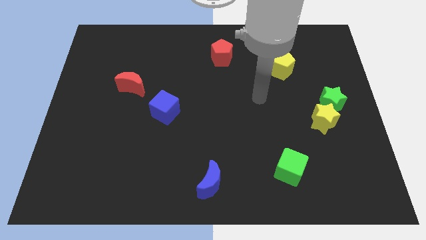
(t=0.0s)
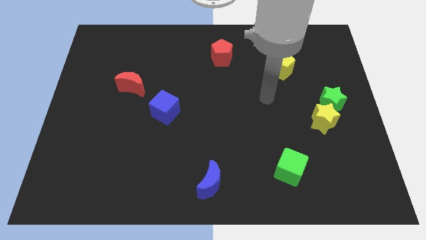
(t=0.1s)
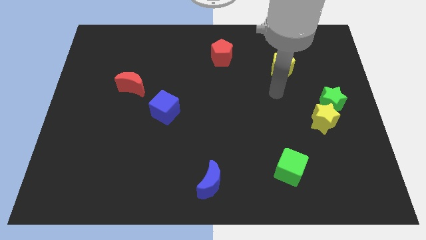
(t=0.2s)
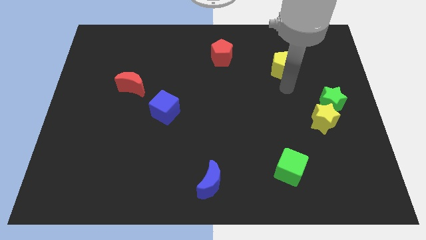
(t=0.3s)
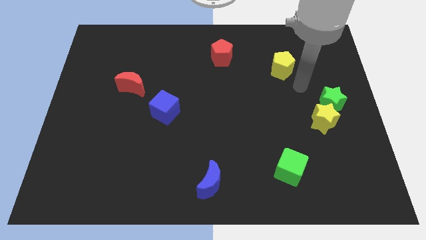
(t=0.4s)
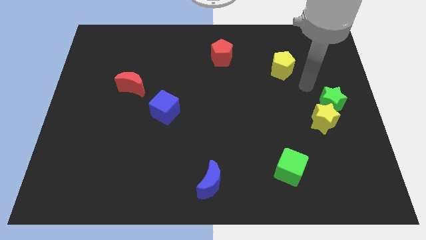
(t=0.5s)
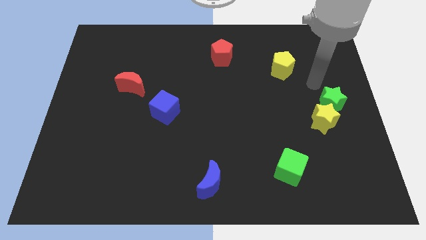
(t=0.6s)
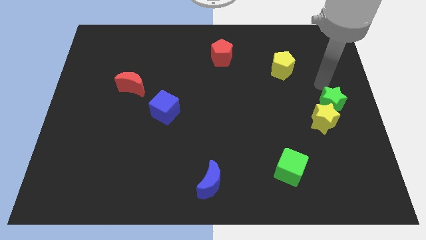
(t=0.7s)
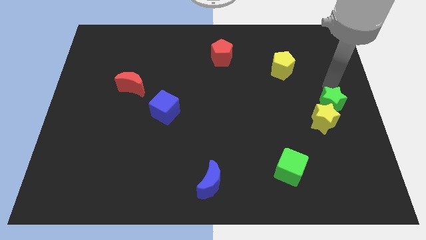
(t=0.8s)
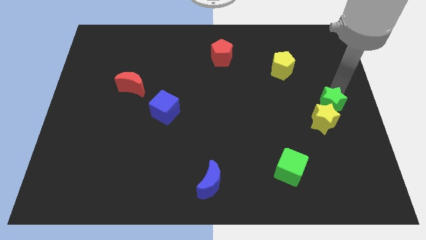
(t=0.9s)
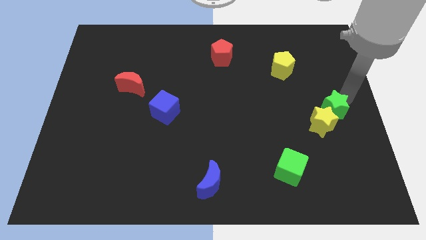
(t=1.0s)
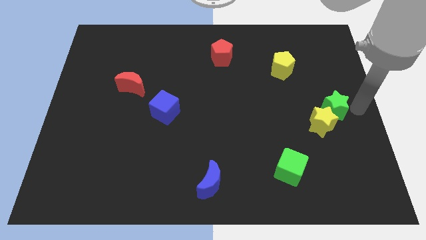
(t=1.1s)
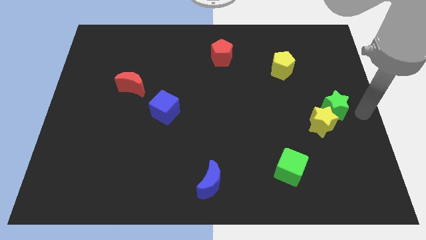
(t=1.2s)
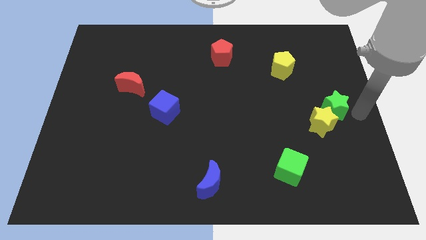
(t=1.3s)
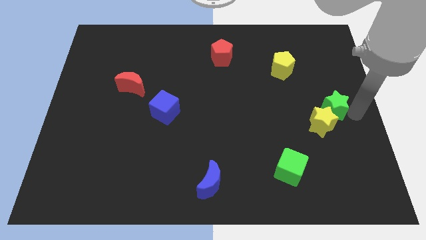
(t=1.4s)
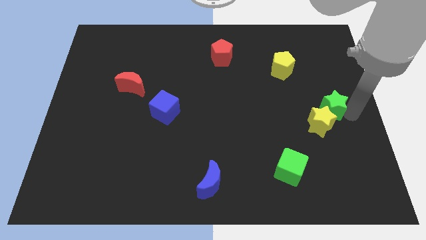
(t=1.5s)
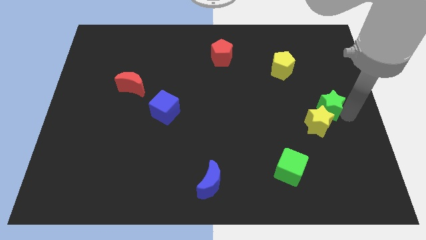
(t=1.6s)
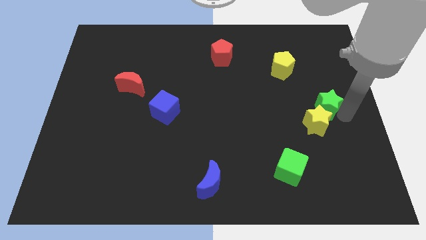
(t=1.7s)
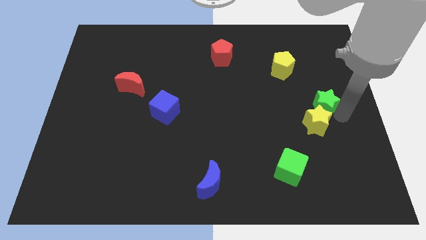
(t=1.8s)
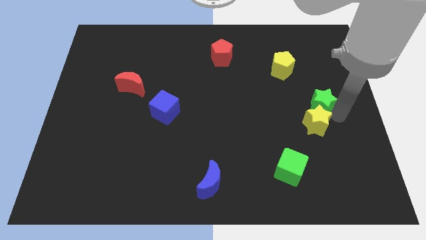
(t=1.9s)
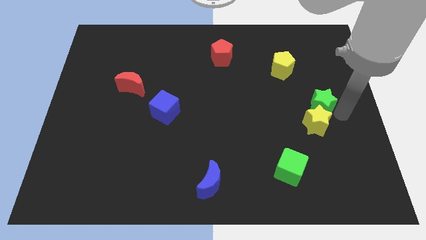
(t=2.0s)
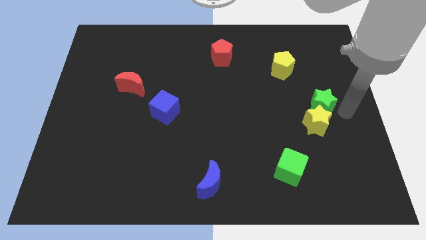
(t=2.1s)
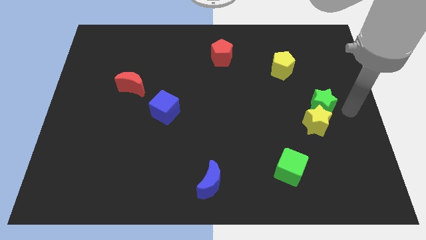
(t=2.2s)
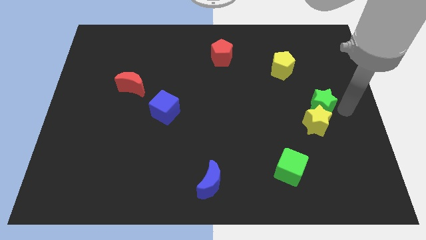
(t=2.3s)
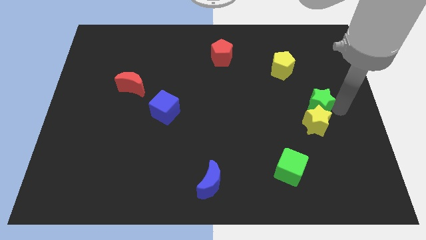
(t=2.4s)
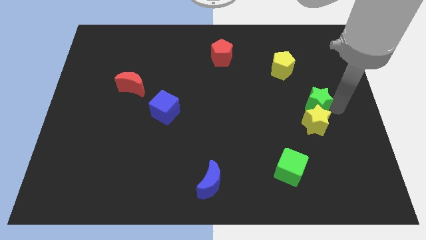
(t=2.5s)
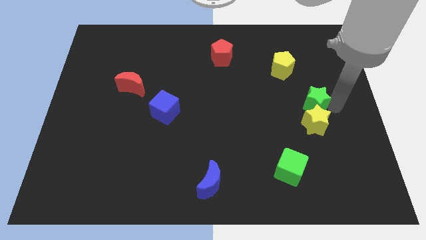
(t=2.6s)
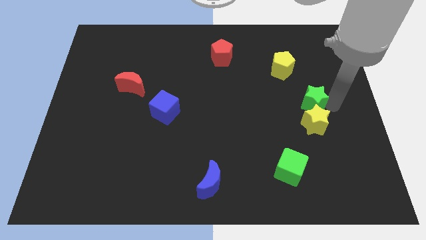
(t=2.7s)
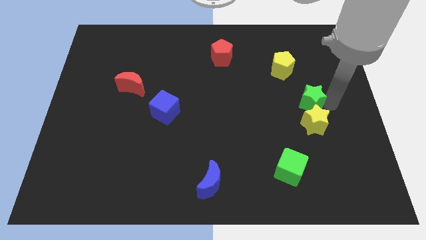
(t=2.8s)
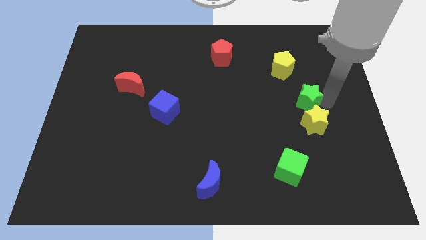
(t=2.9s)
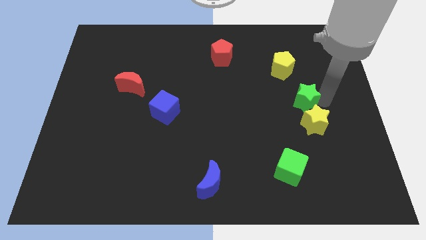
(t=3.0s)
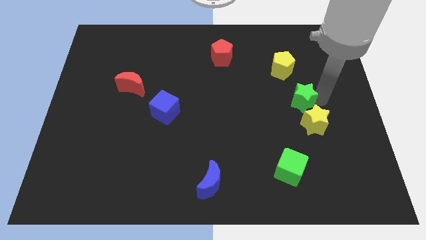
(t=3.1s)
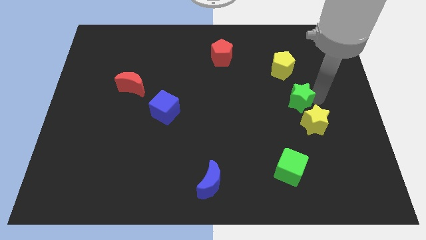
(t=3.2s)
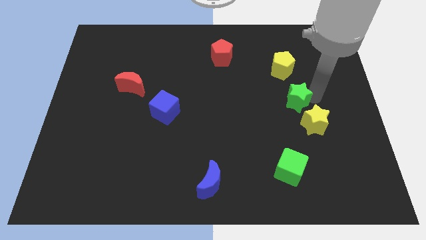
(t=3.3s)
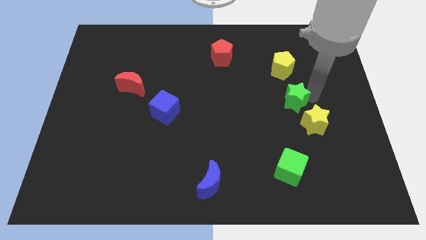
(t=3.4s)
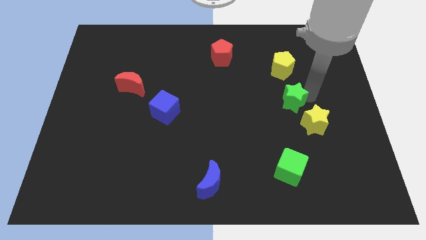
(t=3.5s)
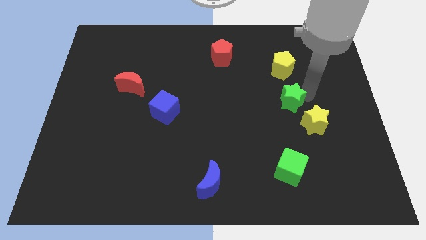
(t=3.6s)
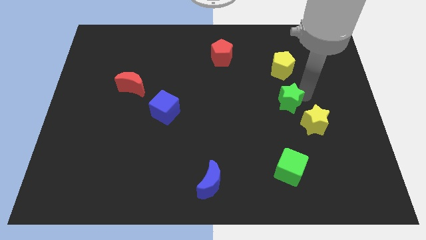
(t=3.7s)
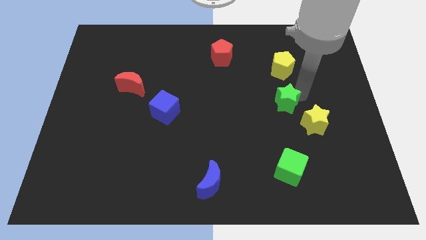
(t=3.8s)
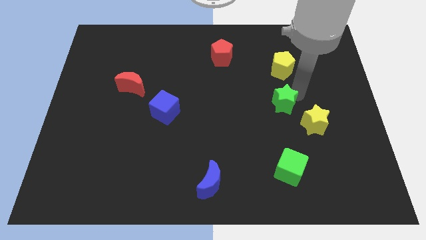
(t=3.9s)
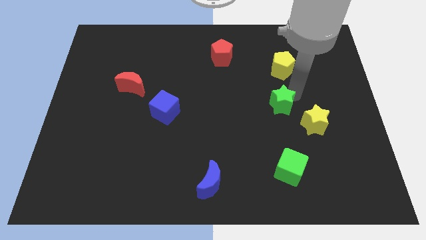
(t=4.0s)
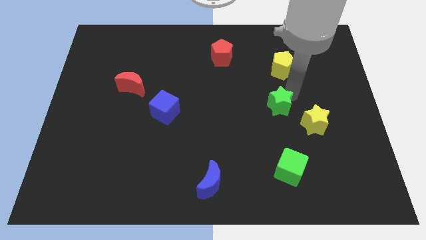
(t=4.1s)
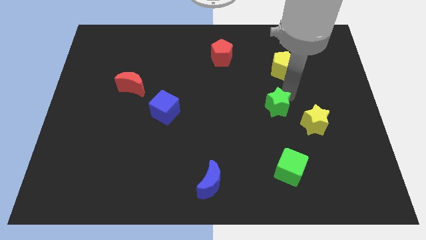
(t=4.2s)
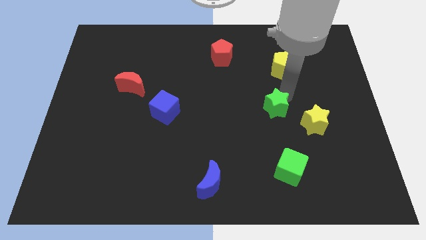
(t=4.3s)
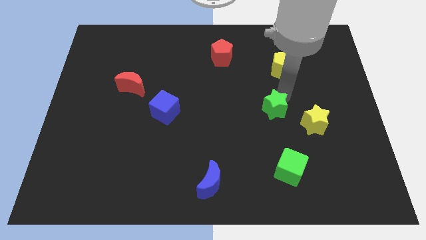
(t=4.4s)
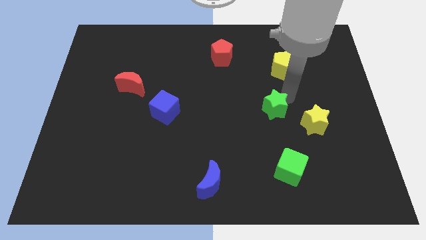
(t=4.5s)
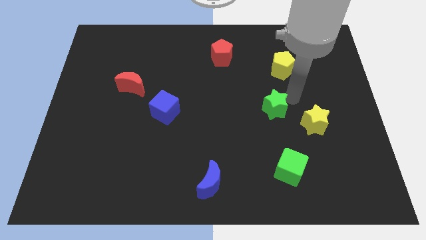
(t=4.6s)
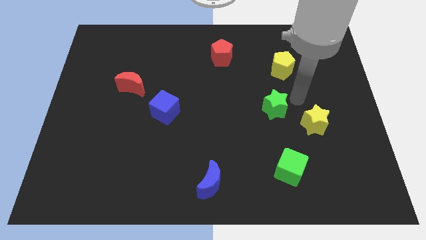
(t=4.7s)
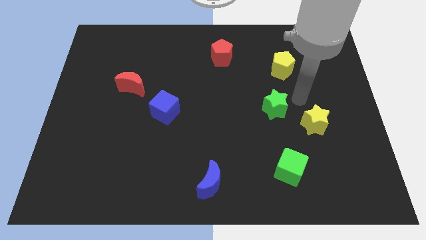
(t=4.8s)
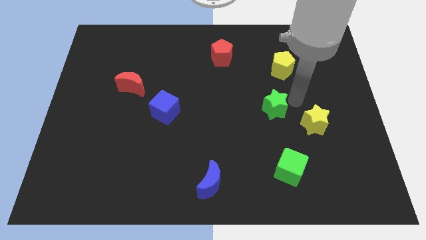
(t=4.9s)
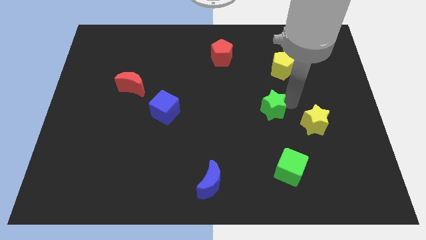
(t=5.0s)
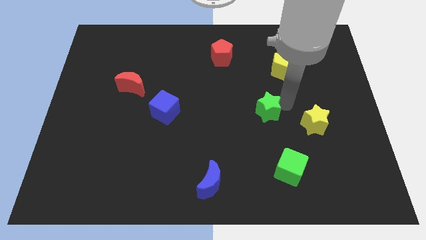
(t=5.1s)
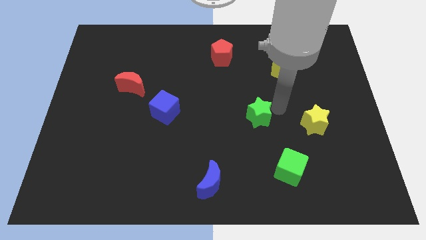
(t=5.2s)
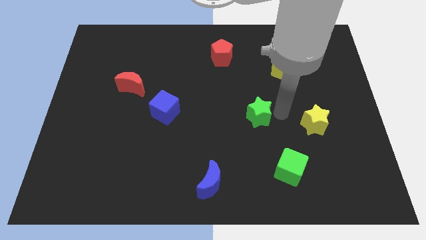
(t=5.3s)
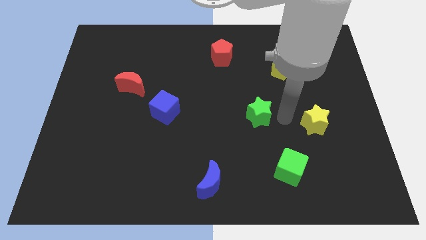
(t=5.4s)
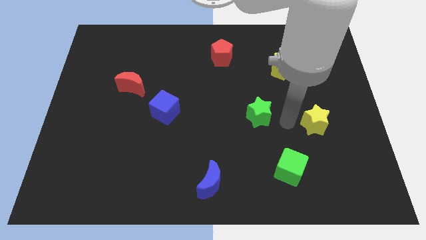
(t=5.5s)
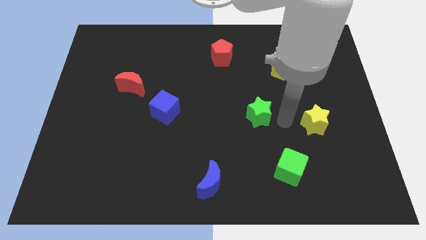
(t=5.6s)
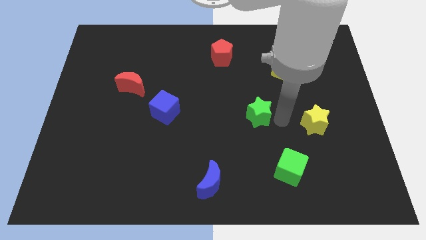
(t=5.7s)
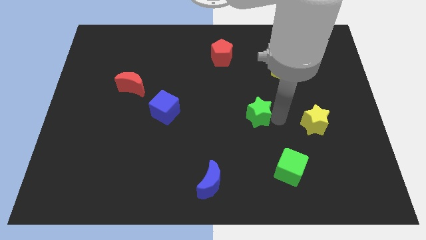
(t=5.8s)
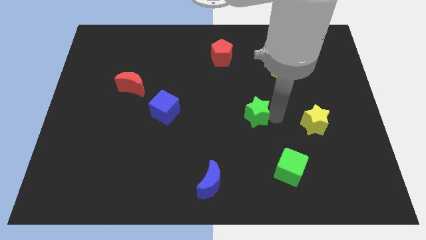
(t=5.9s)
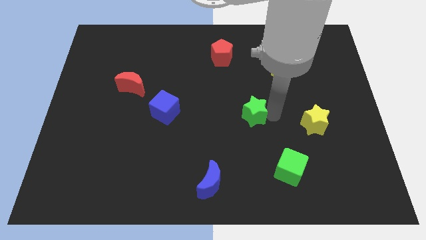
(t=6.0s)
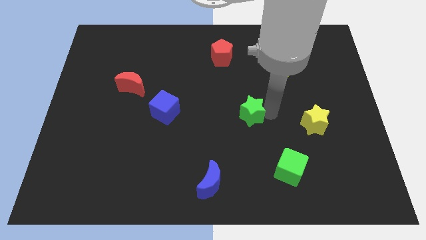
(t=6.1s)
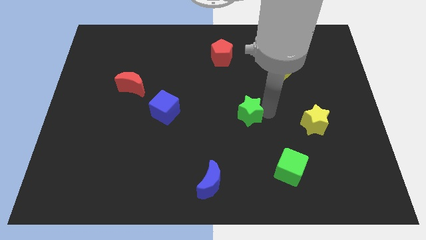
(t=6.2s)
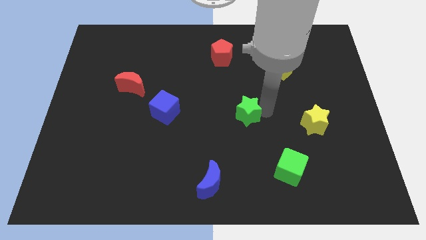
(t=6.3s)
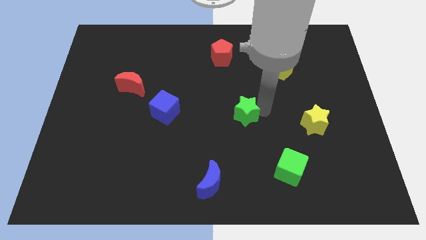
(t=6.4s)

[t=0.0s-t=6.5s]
move the green star left

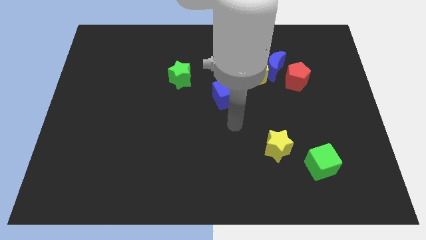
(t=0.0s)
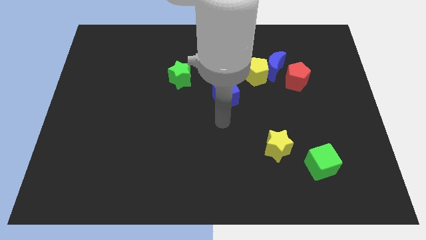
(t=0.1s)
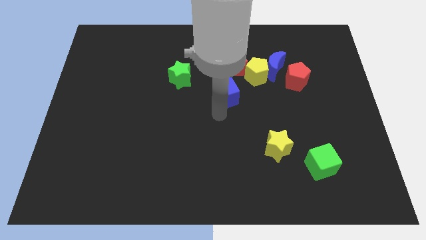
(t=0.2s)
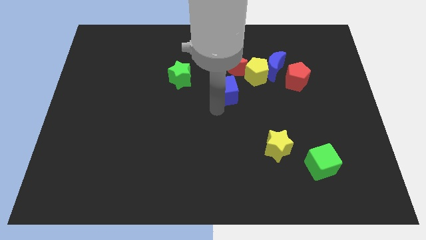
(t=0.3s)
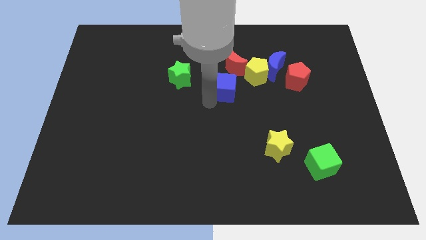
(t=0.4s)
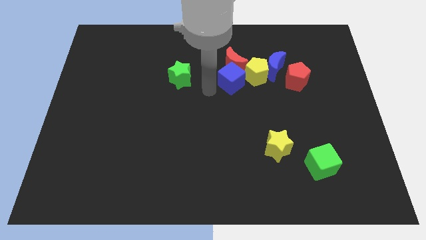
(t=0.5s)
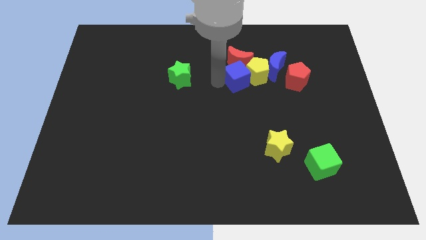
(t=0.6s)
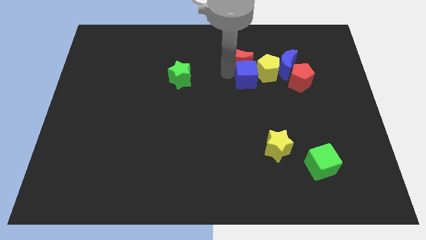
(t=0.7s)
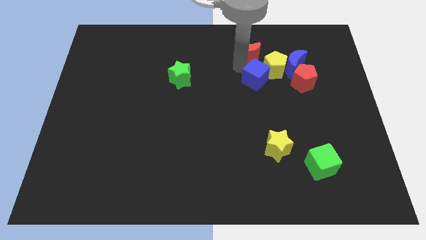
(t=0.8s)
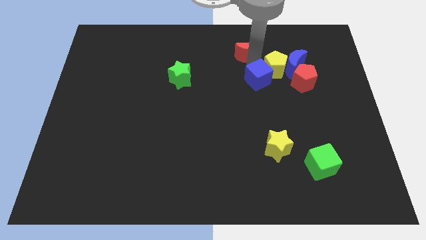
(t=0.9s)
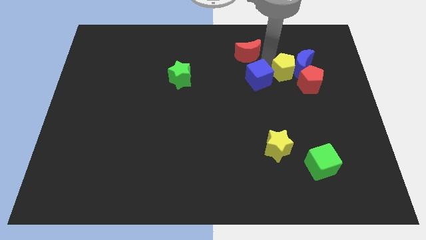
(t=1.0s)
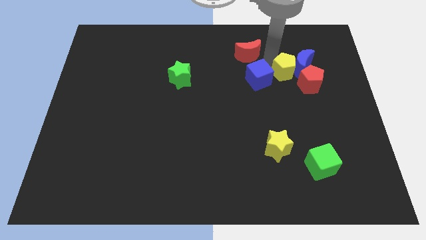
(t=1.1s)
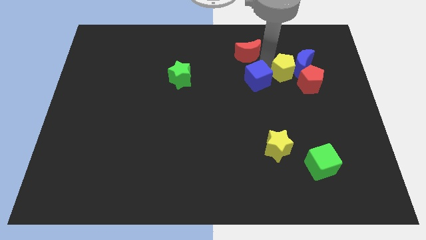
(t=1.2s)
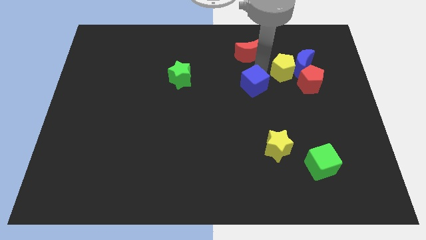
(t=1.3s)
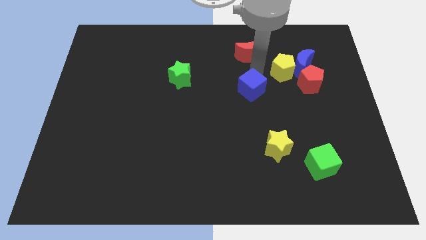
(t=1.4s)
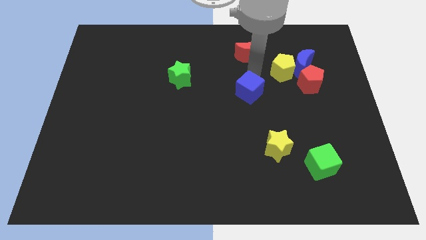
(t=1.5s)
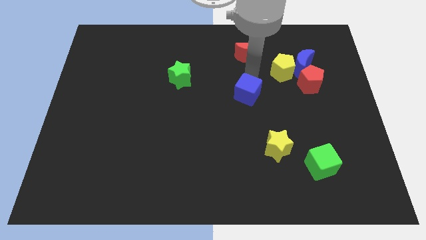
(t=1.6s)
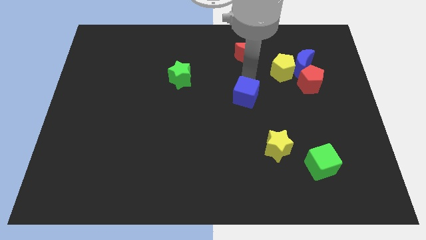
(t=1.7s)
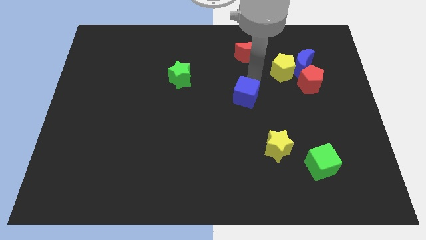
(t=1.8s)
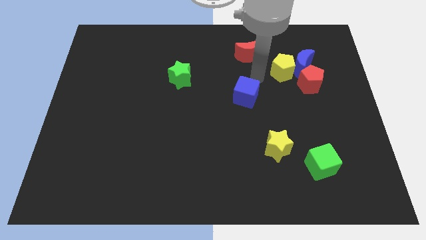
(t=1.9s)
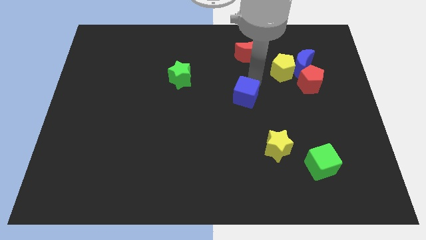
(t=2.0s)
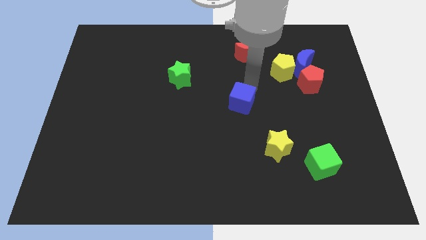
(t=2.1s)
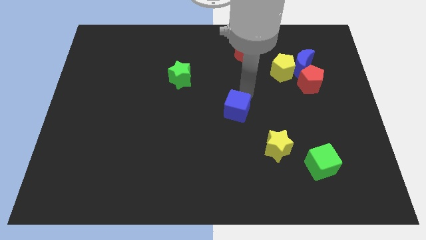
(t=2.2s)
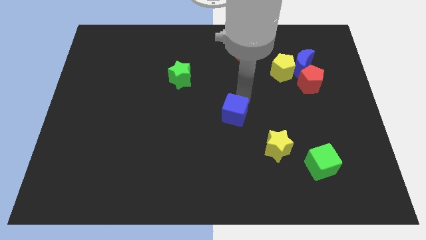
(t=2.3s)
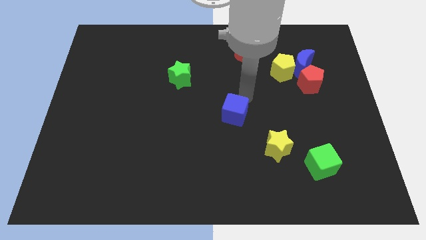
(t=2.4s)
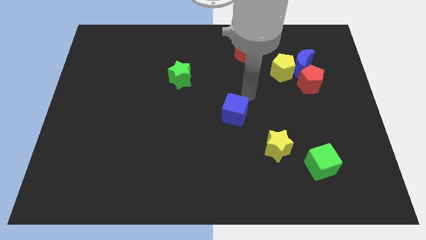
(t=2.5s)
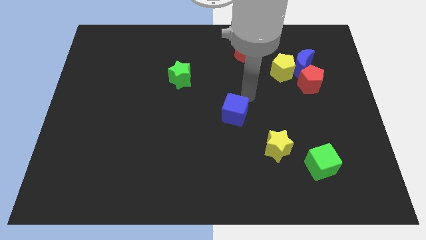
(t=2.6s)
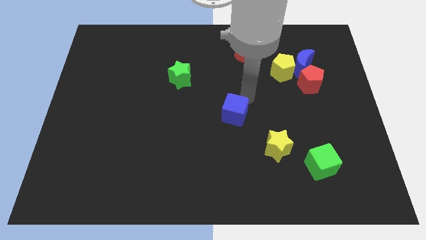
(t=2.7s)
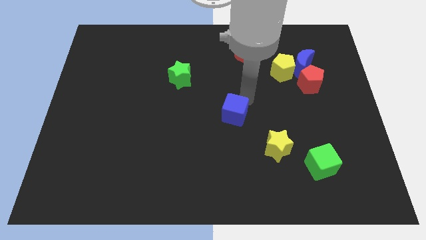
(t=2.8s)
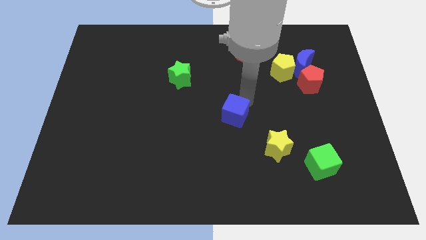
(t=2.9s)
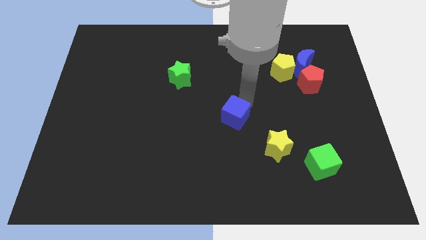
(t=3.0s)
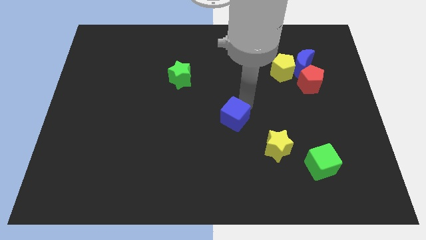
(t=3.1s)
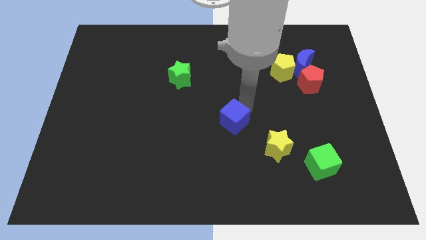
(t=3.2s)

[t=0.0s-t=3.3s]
slightly move the blue cube downwards
